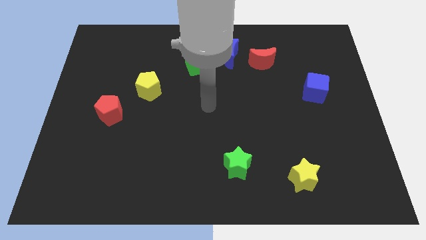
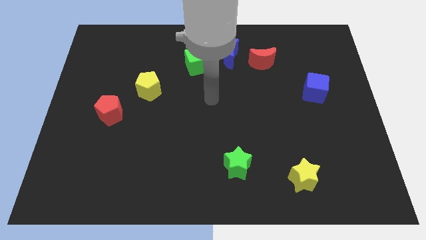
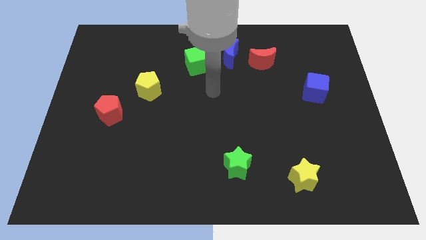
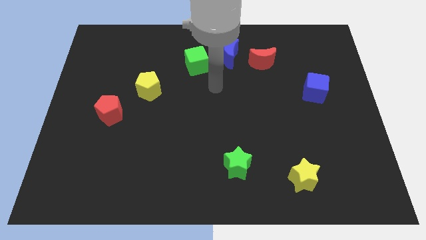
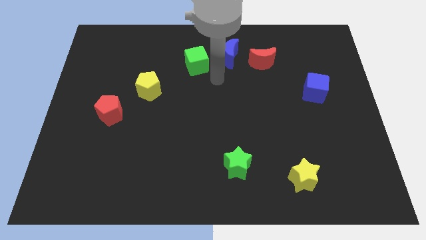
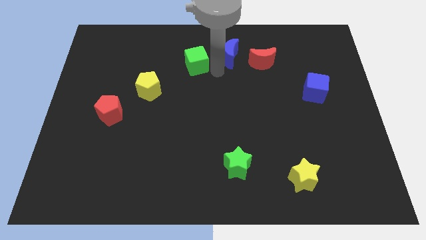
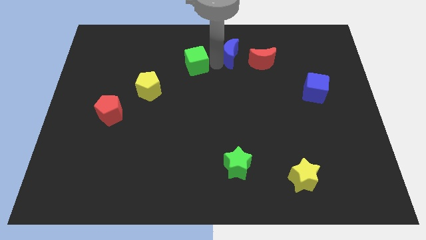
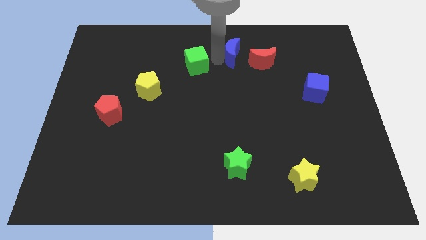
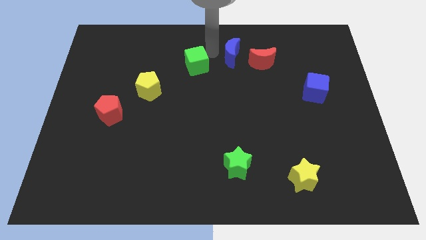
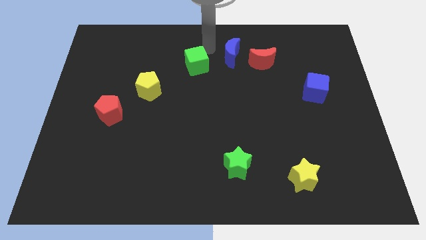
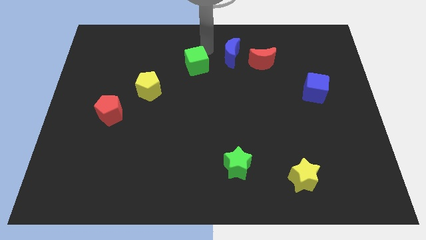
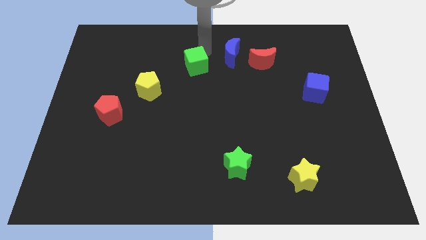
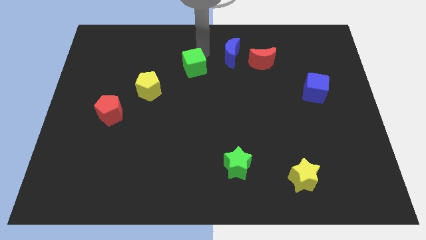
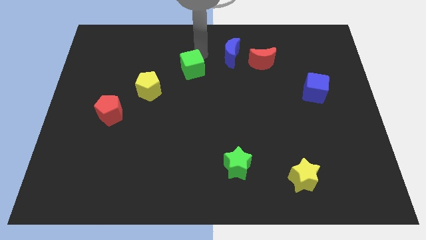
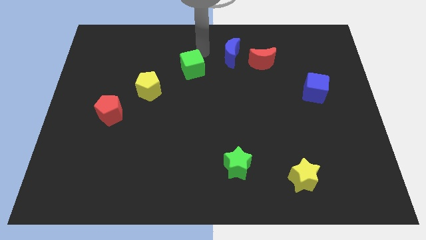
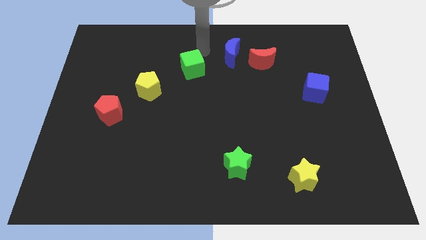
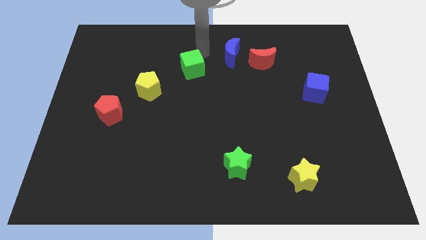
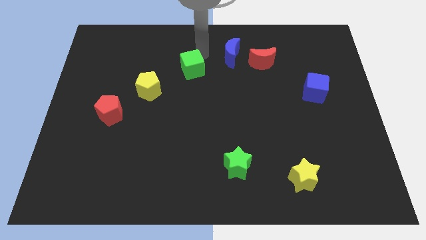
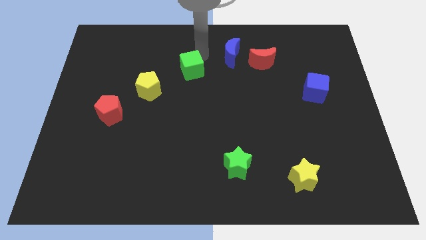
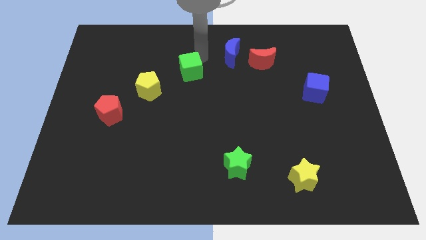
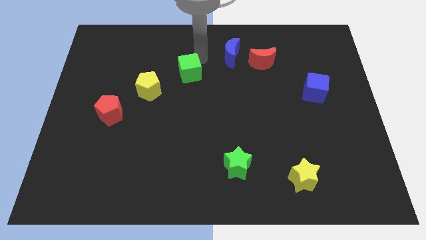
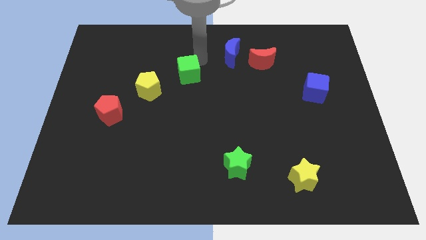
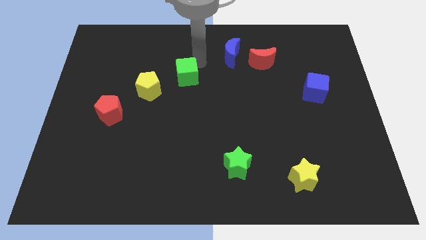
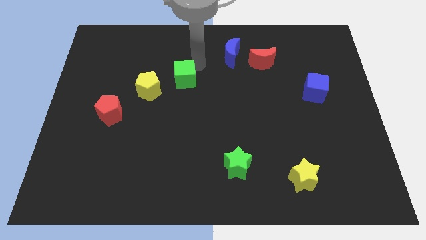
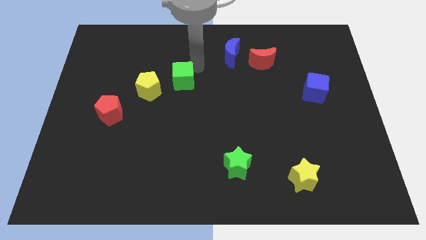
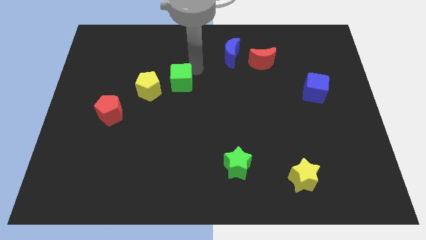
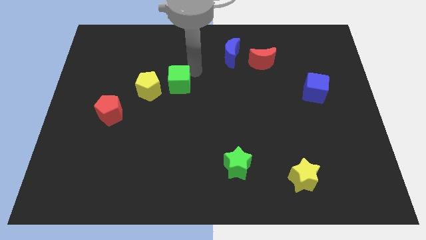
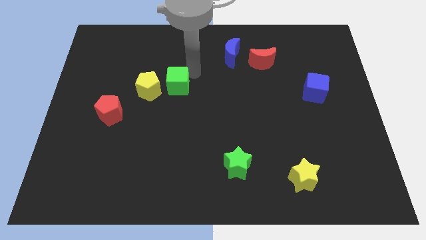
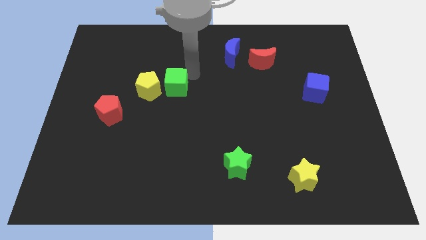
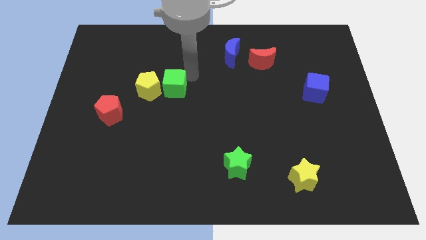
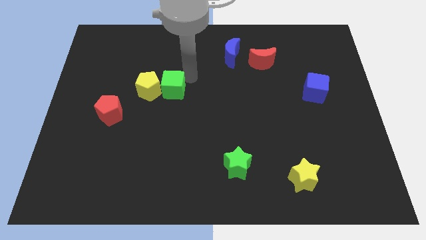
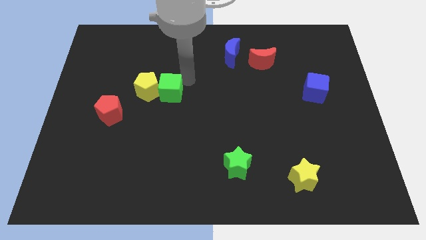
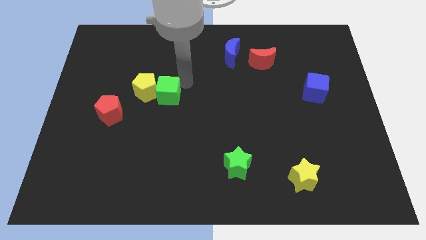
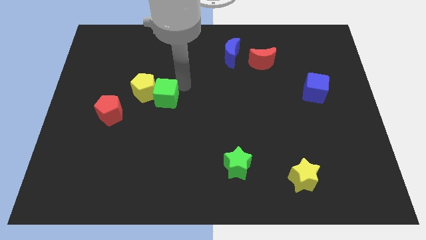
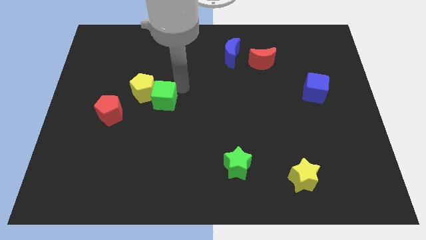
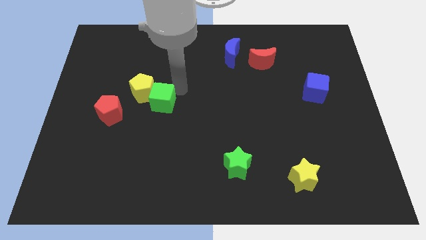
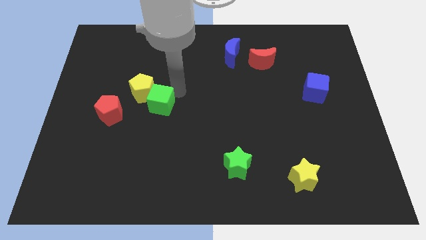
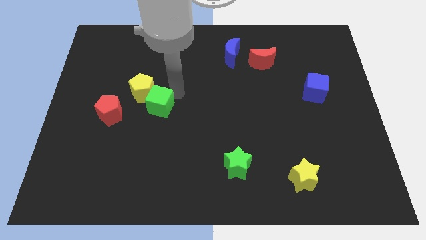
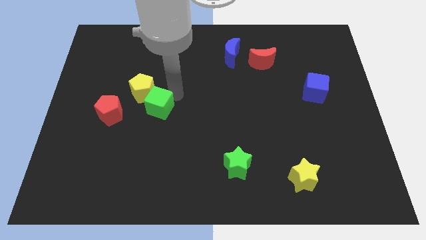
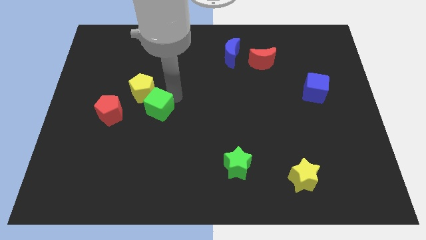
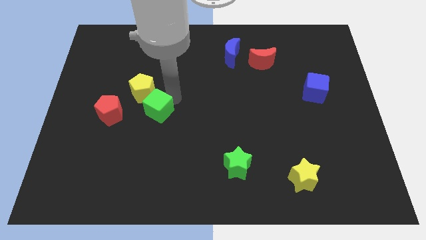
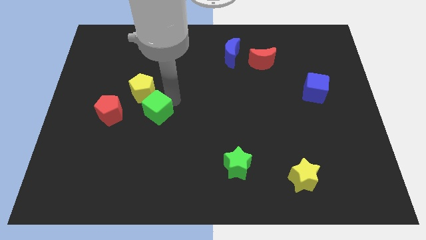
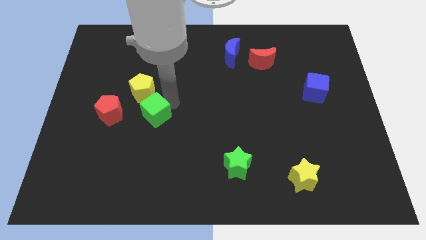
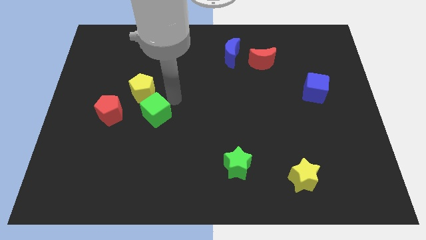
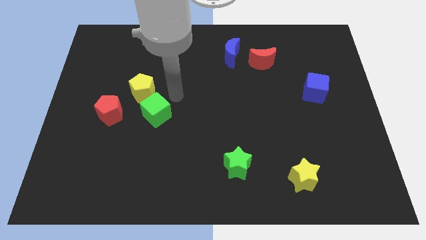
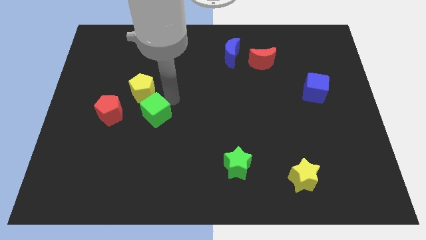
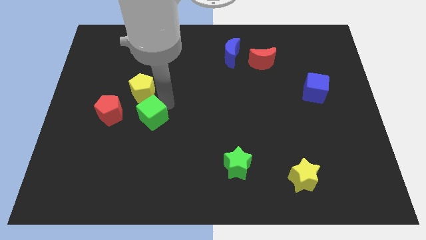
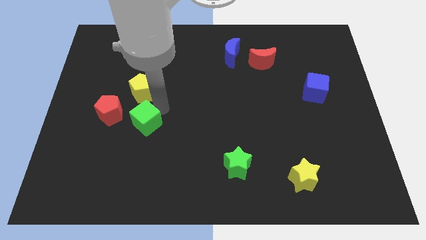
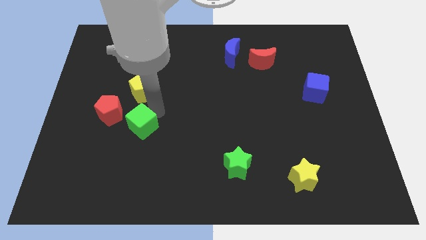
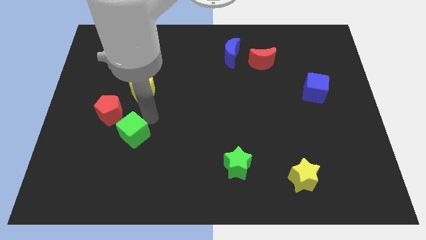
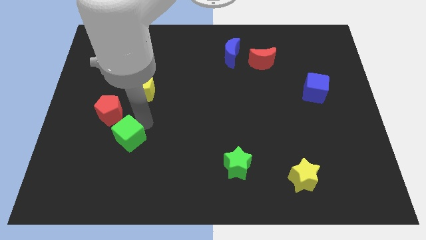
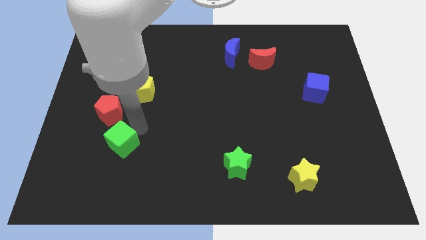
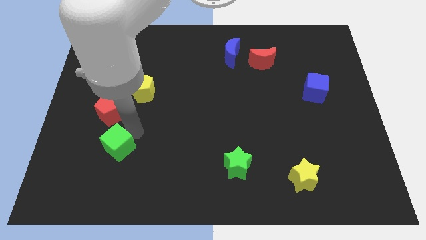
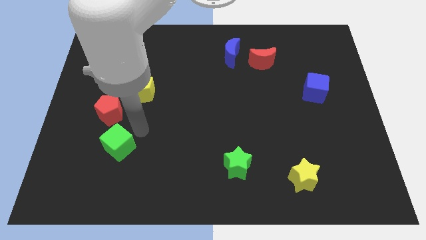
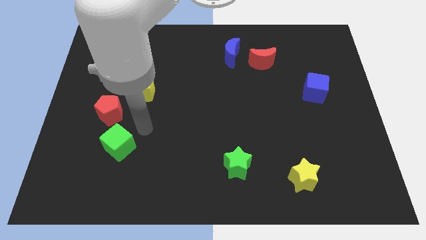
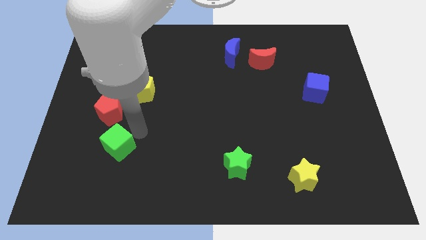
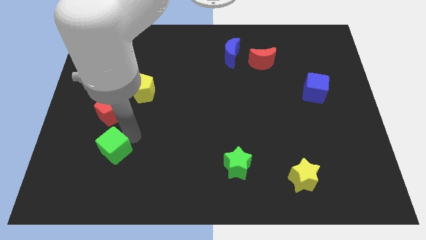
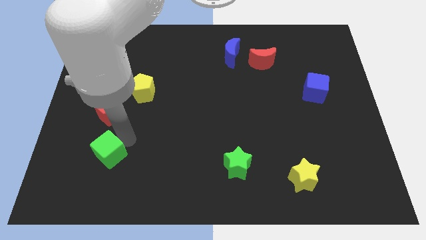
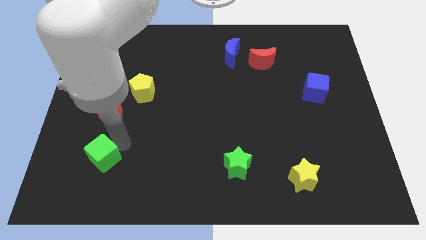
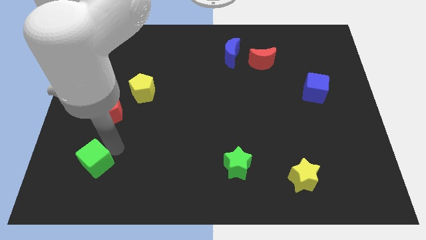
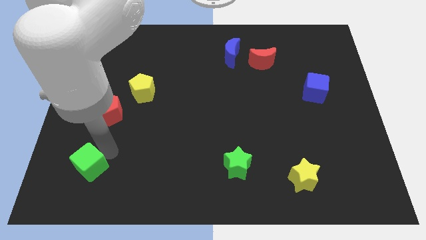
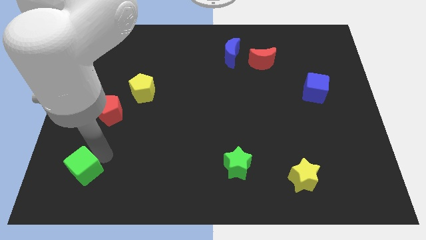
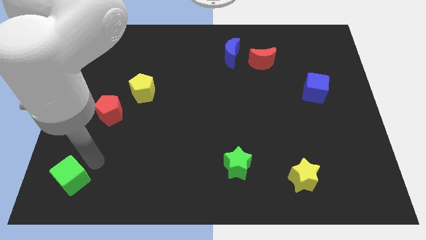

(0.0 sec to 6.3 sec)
push the green cube to the lower left corner
